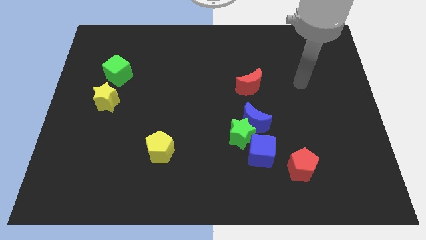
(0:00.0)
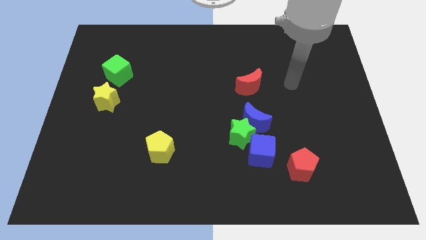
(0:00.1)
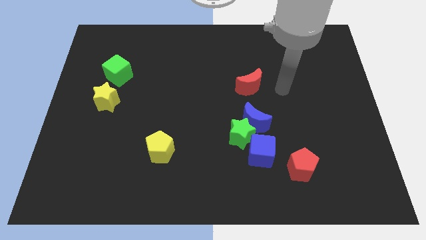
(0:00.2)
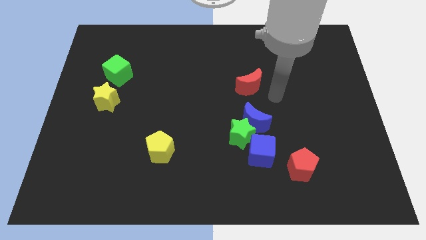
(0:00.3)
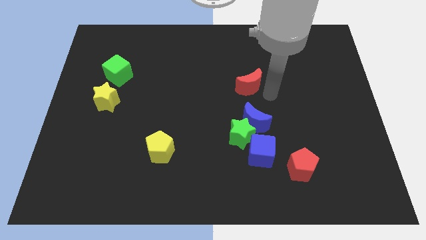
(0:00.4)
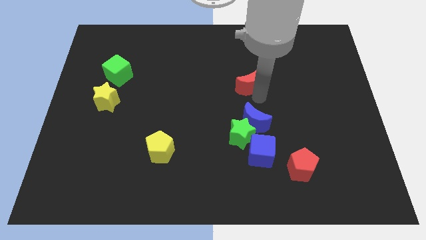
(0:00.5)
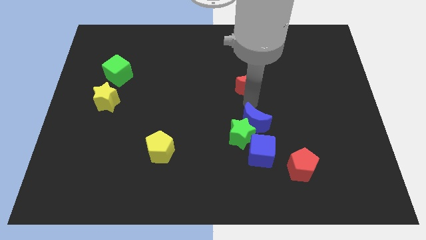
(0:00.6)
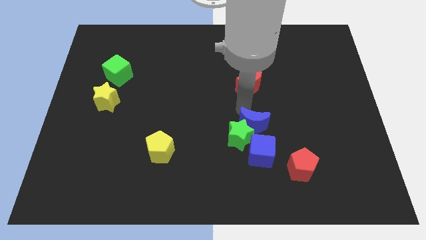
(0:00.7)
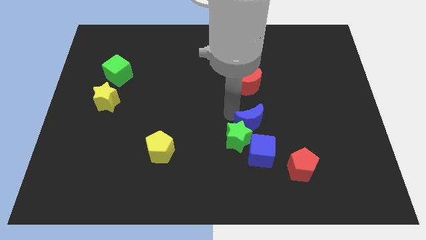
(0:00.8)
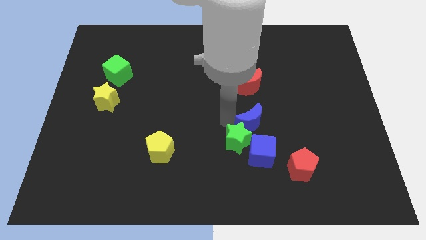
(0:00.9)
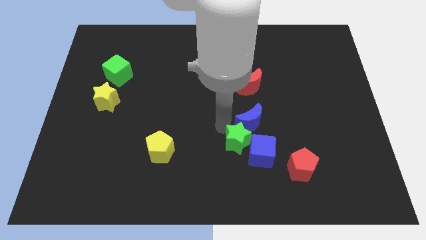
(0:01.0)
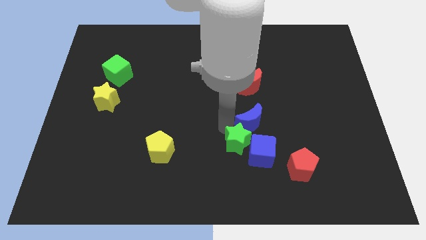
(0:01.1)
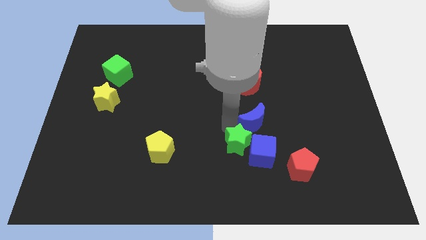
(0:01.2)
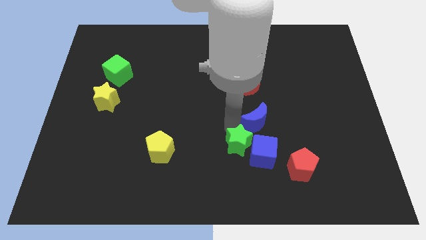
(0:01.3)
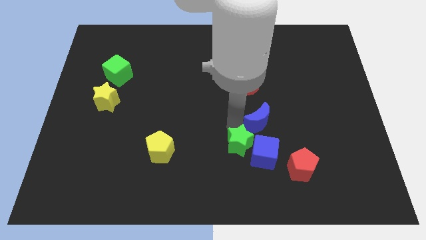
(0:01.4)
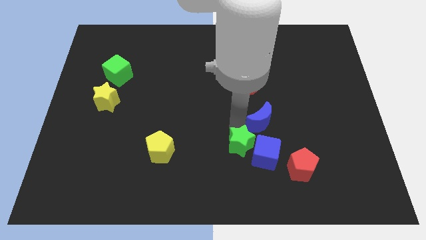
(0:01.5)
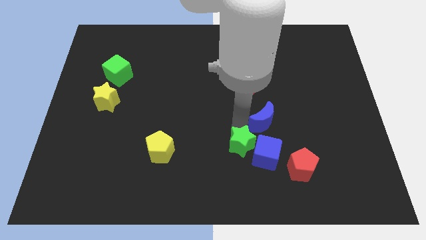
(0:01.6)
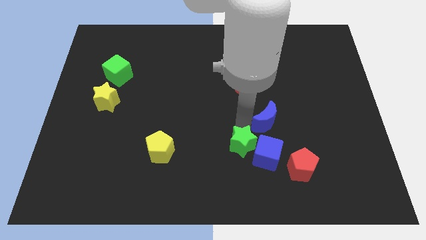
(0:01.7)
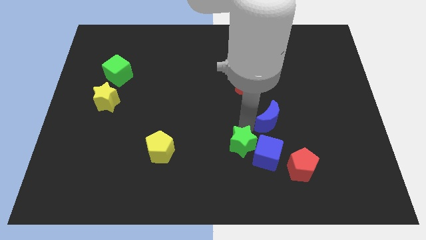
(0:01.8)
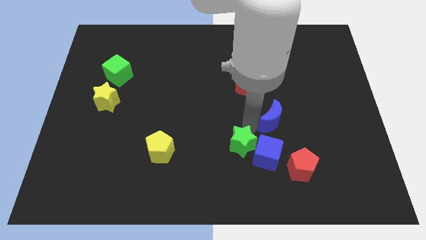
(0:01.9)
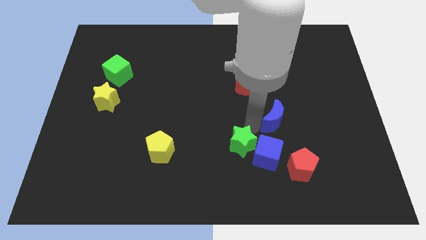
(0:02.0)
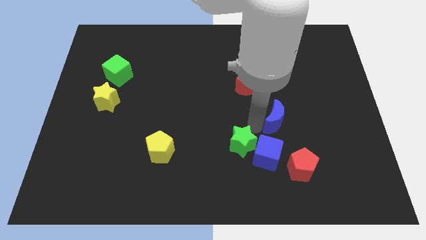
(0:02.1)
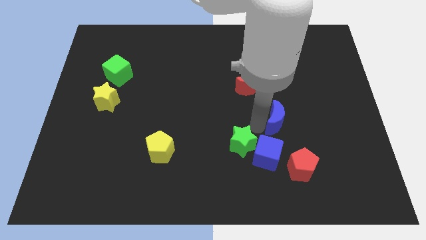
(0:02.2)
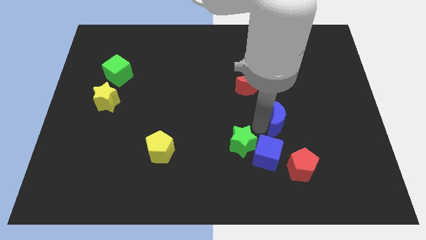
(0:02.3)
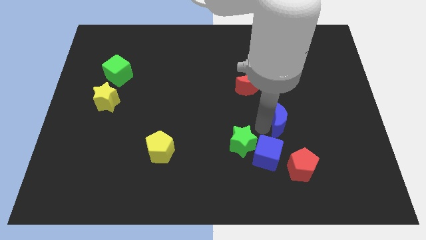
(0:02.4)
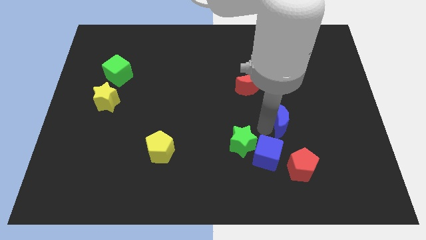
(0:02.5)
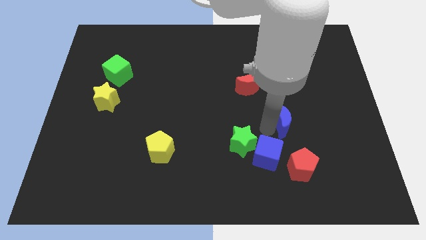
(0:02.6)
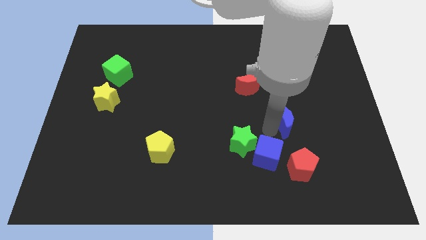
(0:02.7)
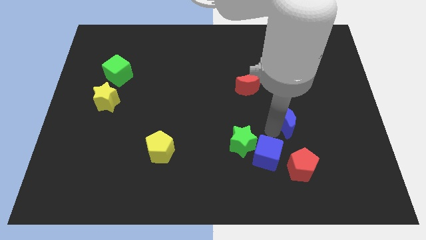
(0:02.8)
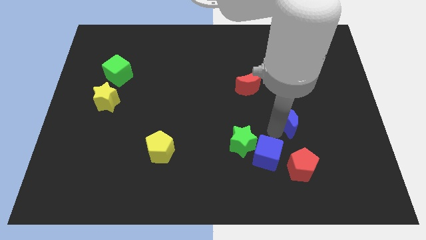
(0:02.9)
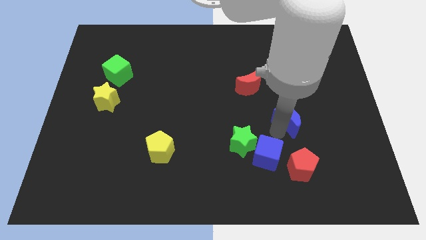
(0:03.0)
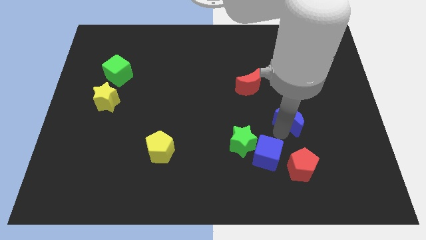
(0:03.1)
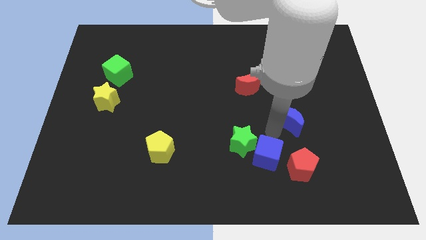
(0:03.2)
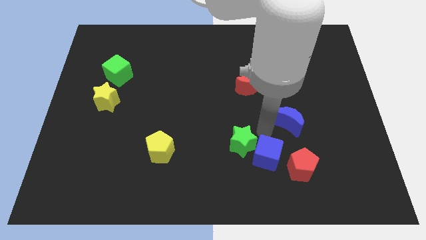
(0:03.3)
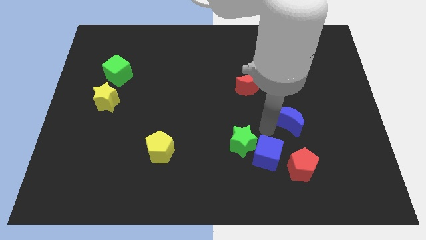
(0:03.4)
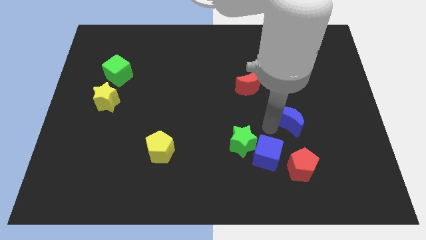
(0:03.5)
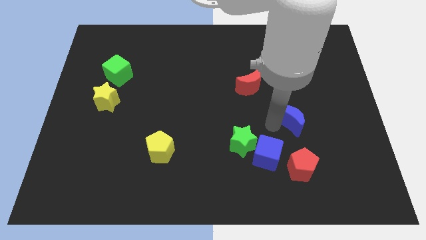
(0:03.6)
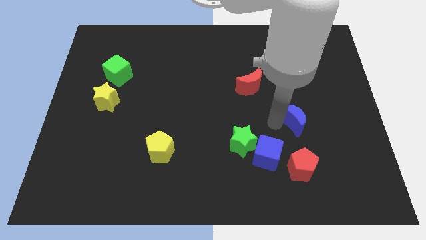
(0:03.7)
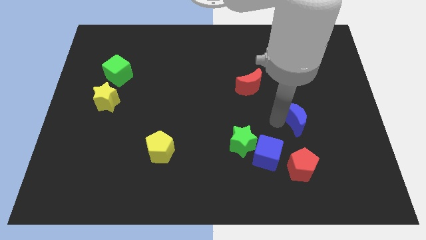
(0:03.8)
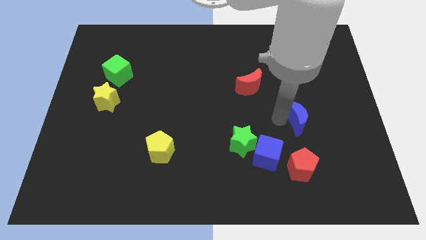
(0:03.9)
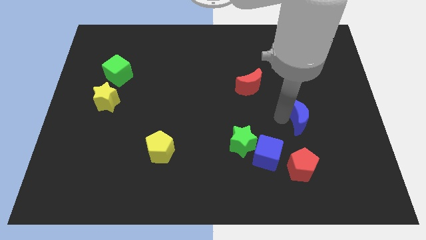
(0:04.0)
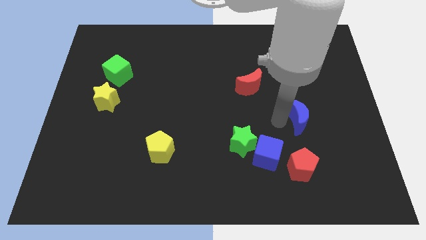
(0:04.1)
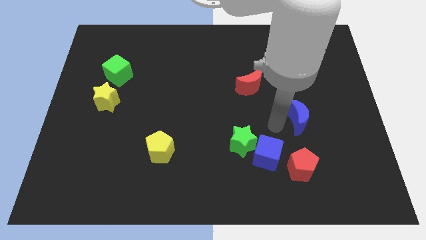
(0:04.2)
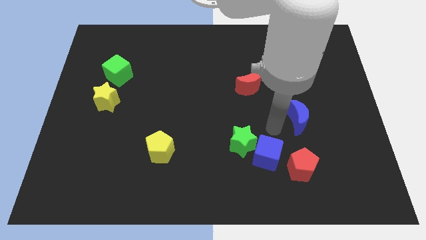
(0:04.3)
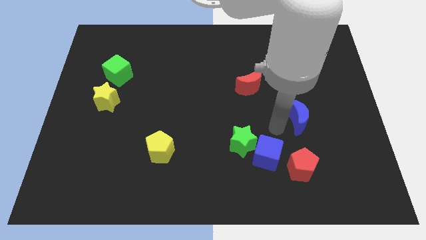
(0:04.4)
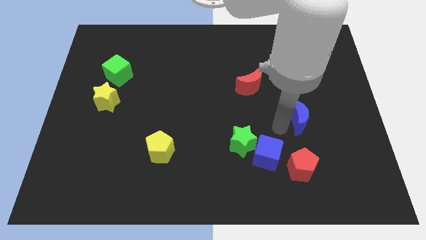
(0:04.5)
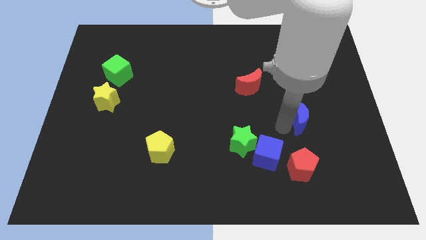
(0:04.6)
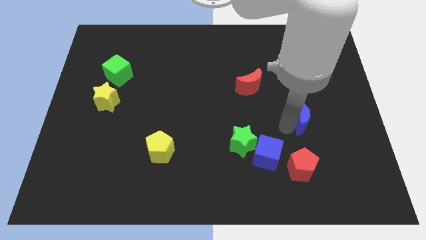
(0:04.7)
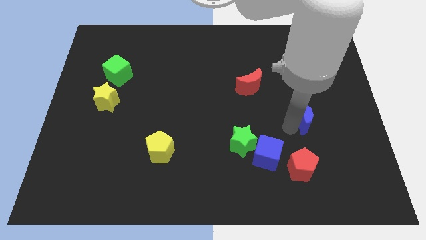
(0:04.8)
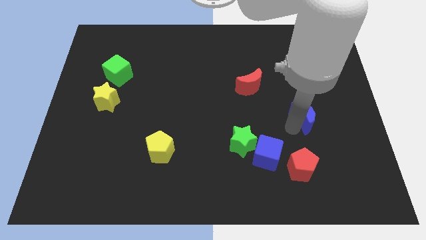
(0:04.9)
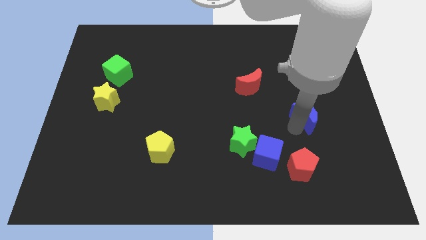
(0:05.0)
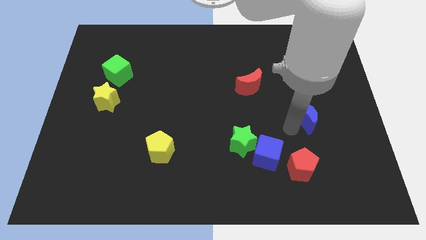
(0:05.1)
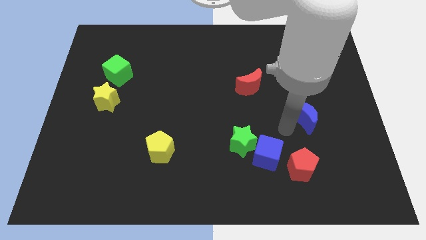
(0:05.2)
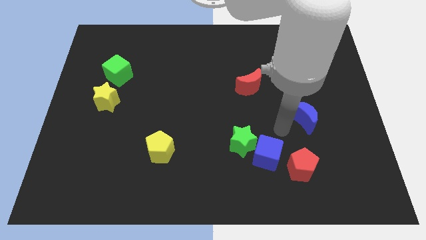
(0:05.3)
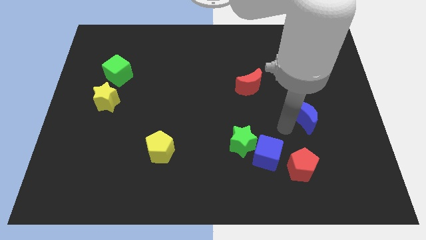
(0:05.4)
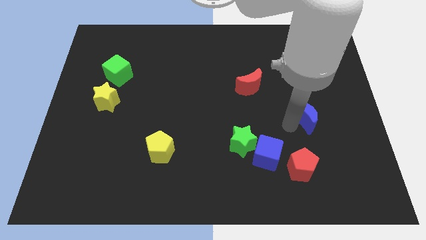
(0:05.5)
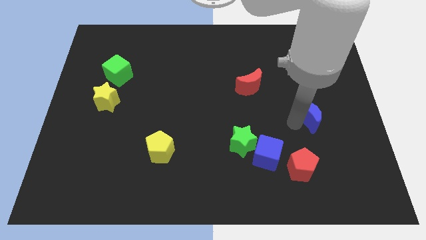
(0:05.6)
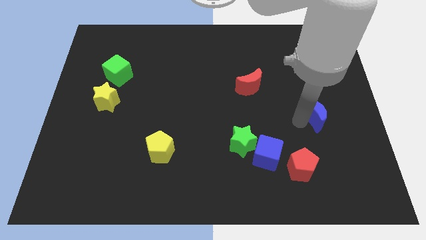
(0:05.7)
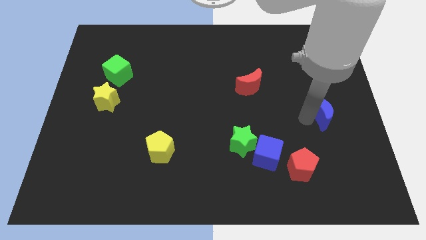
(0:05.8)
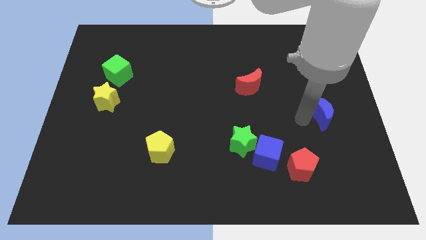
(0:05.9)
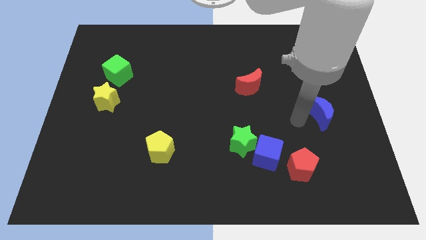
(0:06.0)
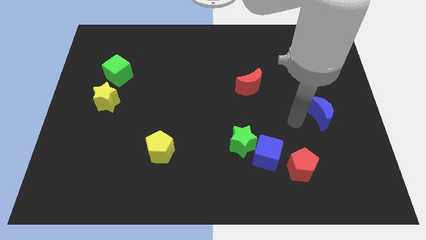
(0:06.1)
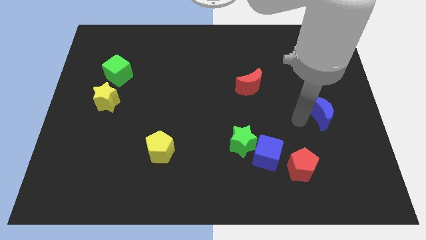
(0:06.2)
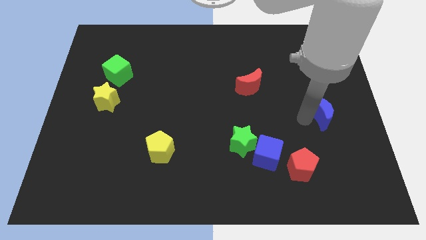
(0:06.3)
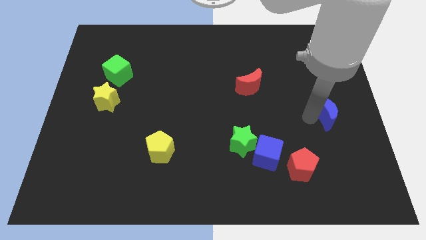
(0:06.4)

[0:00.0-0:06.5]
push the blue moon to the right side
